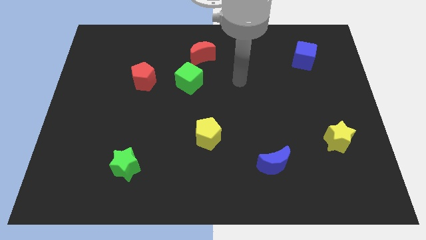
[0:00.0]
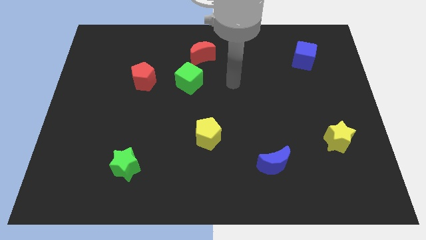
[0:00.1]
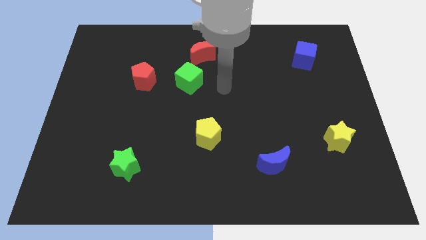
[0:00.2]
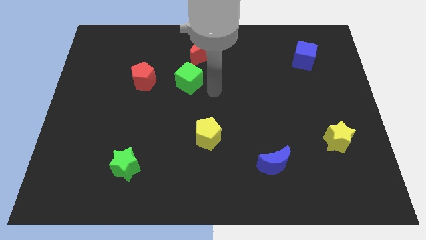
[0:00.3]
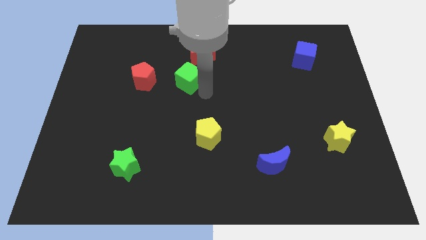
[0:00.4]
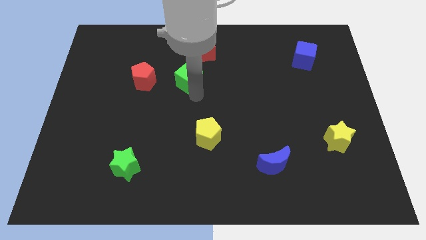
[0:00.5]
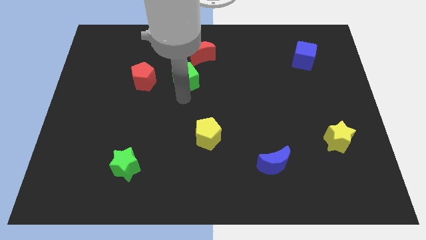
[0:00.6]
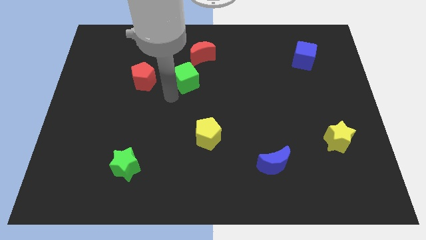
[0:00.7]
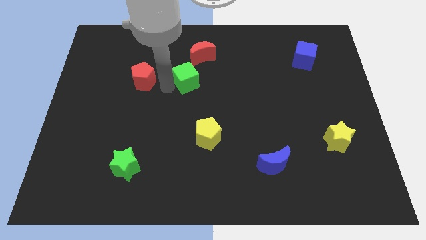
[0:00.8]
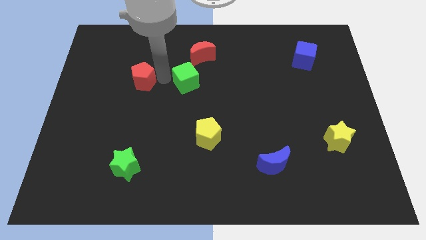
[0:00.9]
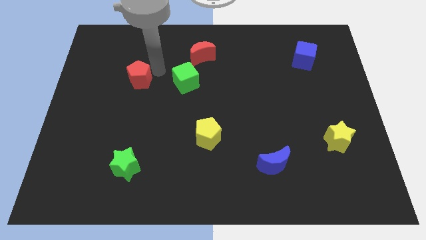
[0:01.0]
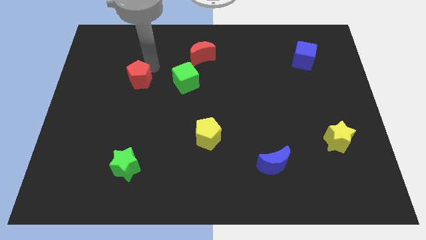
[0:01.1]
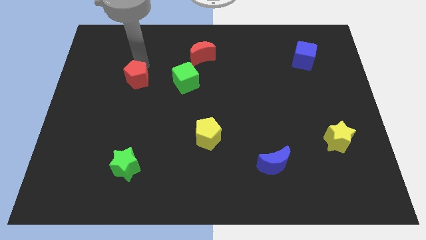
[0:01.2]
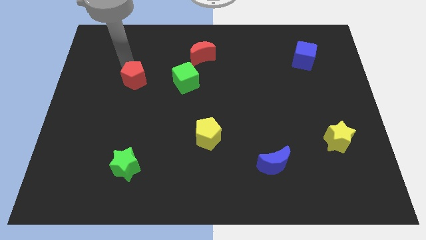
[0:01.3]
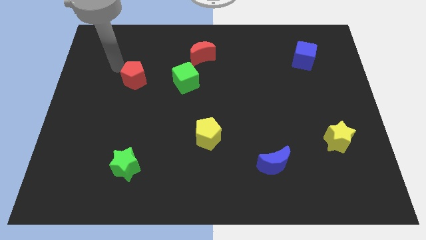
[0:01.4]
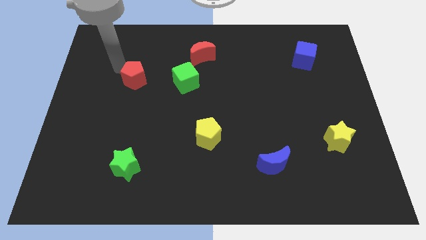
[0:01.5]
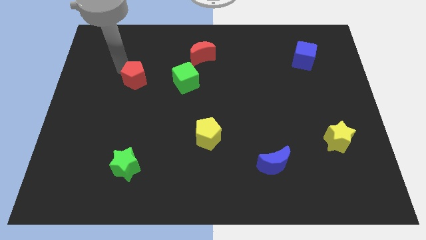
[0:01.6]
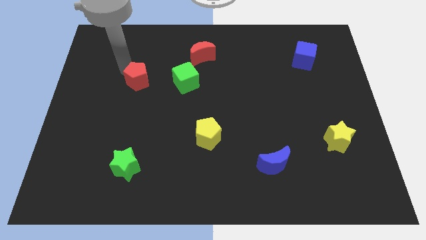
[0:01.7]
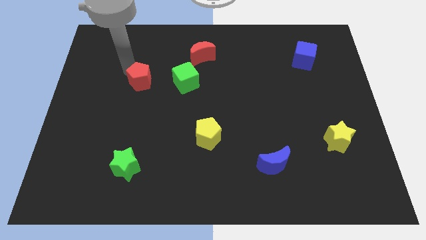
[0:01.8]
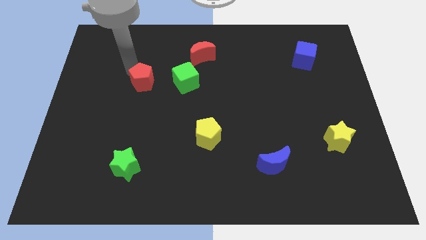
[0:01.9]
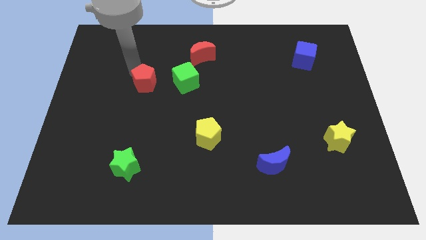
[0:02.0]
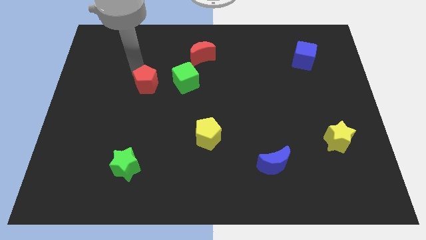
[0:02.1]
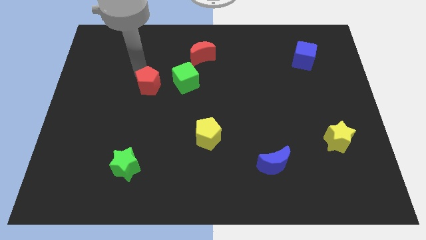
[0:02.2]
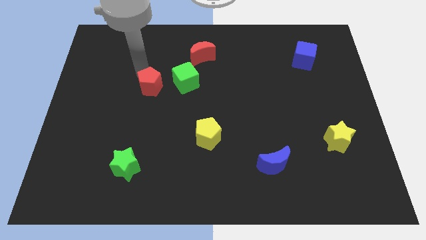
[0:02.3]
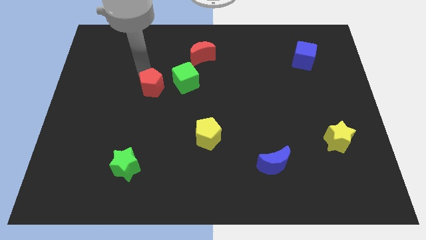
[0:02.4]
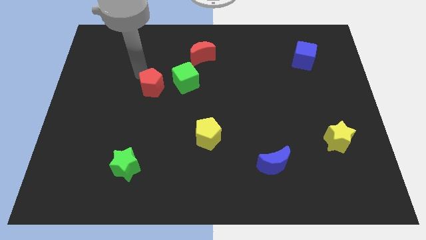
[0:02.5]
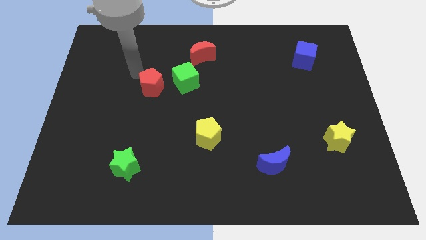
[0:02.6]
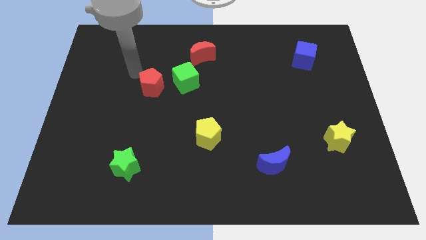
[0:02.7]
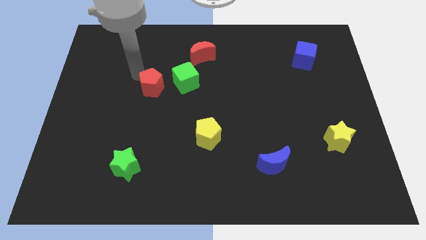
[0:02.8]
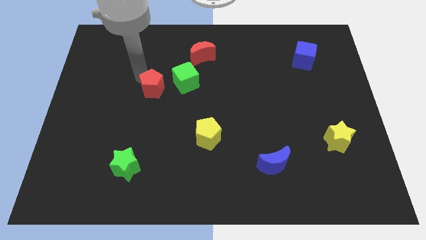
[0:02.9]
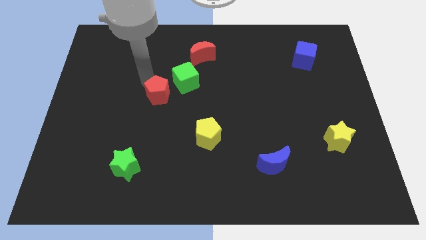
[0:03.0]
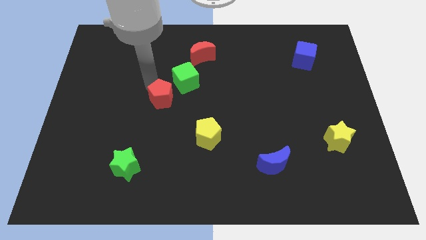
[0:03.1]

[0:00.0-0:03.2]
slightly move the red pentagon down and right

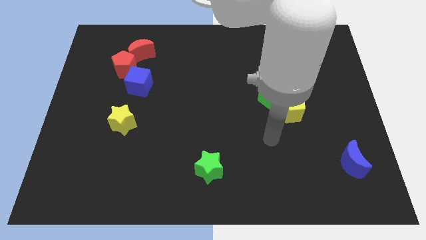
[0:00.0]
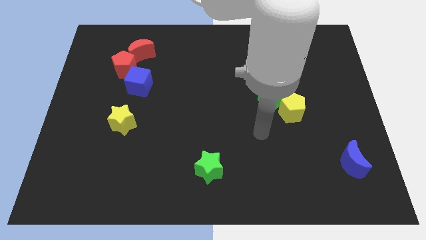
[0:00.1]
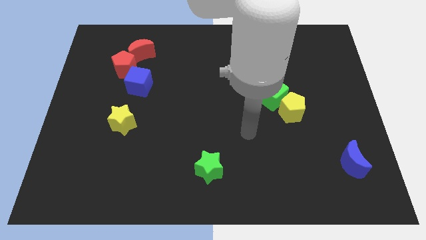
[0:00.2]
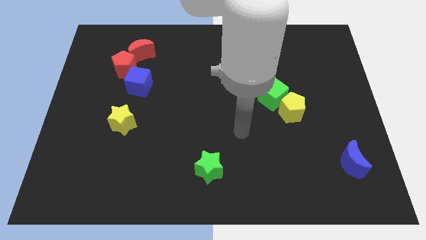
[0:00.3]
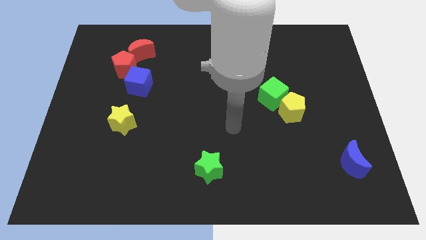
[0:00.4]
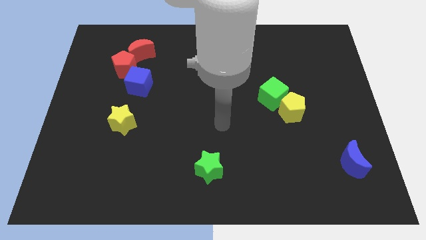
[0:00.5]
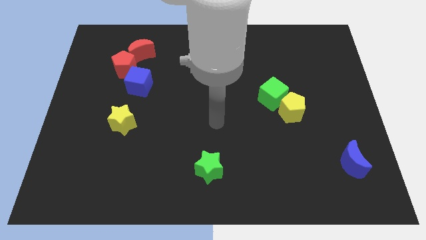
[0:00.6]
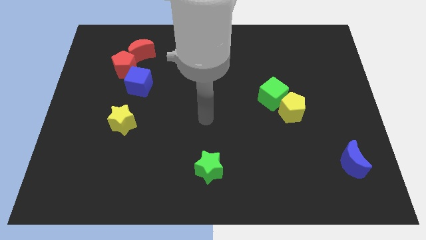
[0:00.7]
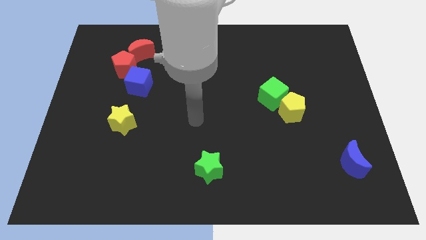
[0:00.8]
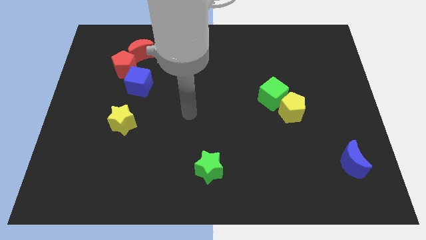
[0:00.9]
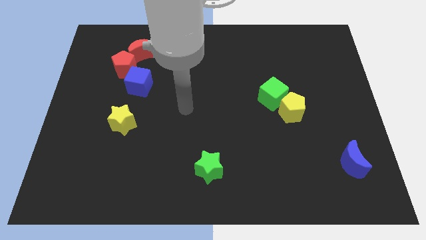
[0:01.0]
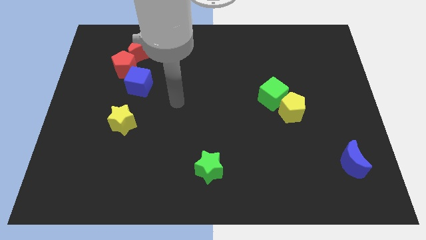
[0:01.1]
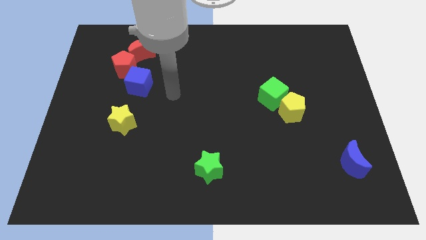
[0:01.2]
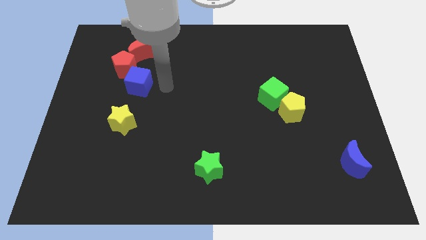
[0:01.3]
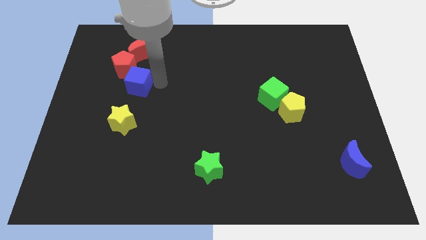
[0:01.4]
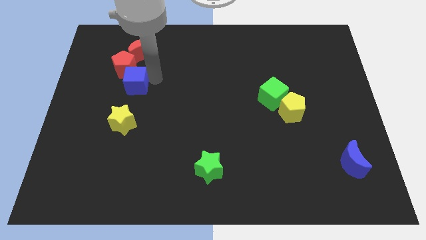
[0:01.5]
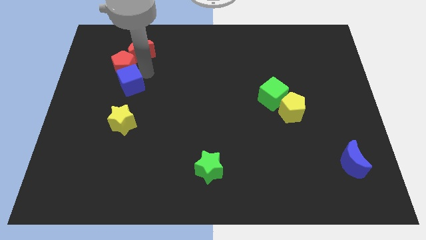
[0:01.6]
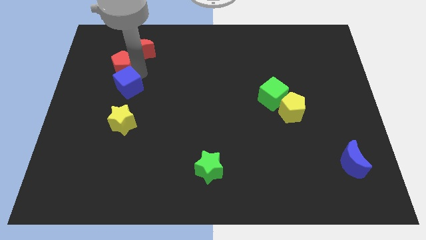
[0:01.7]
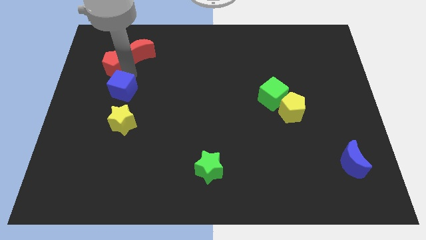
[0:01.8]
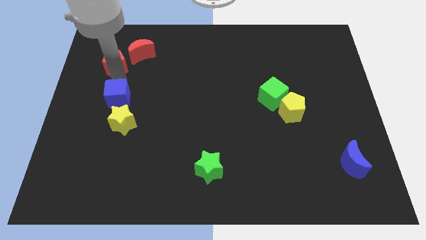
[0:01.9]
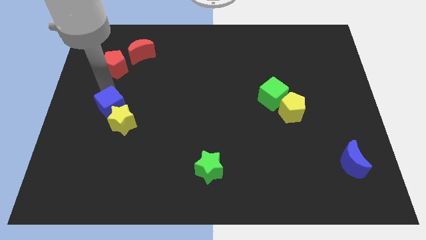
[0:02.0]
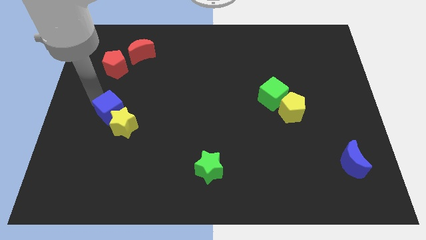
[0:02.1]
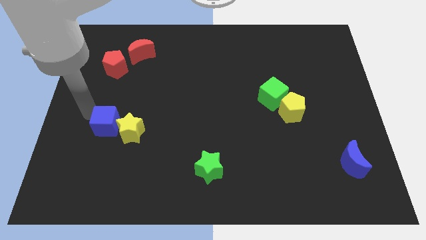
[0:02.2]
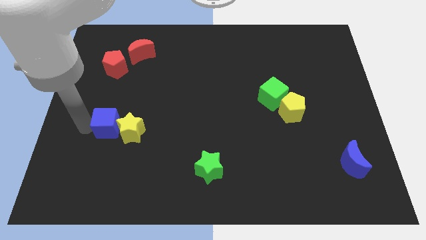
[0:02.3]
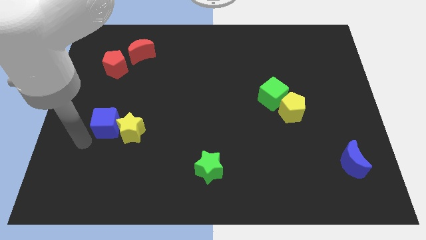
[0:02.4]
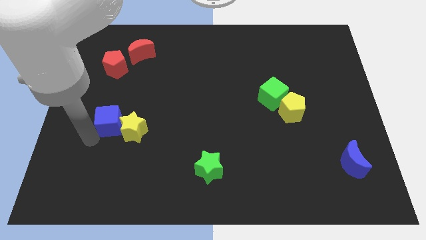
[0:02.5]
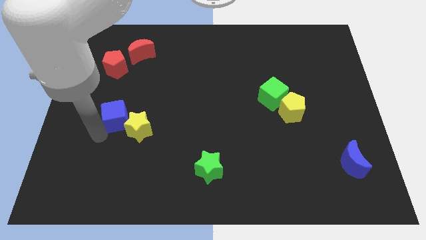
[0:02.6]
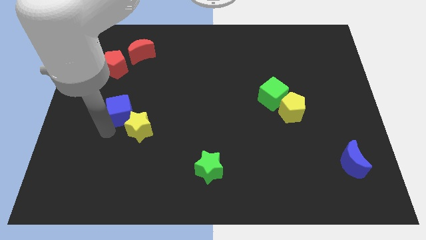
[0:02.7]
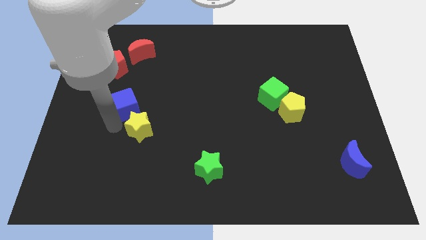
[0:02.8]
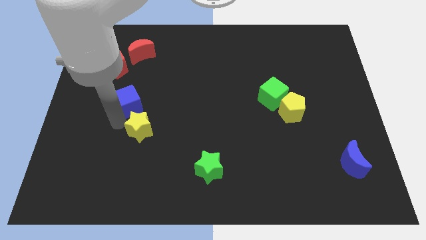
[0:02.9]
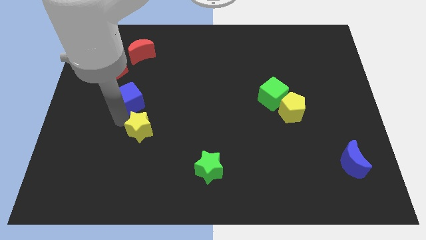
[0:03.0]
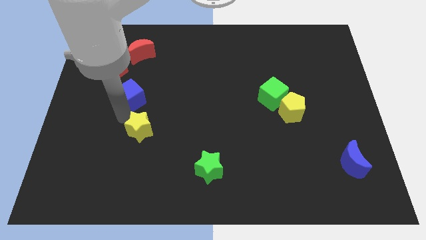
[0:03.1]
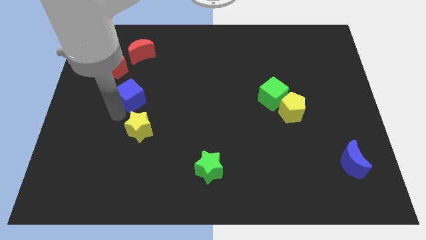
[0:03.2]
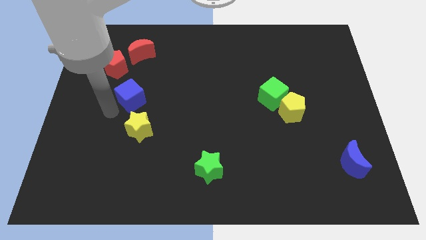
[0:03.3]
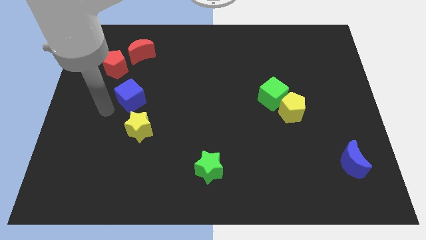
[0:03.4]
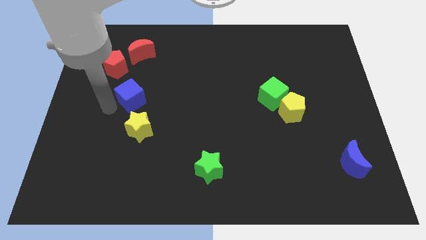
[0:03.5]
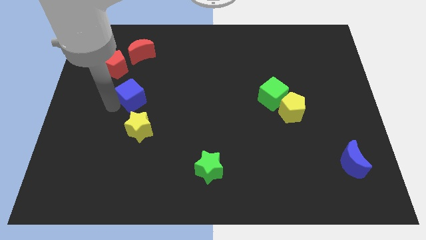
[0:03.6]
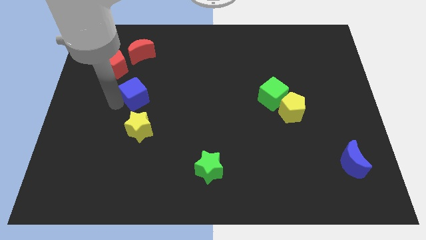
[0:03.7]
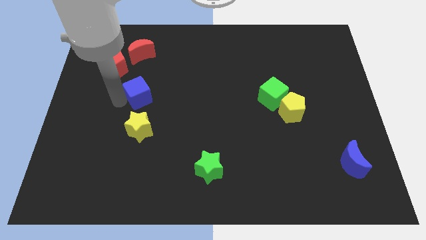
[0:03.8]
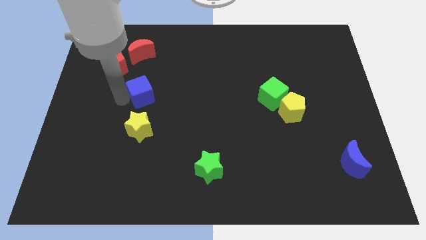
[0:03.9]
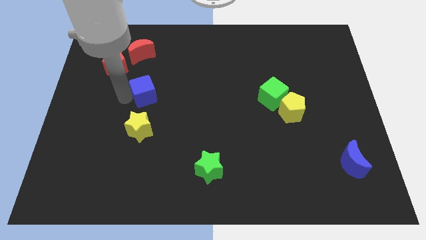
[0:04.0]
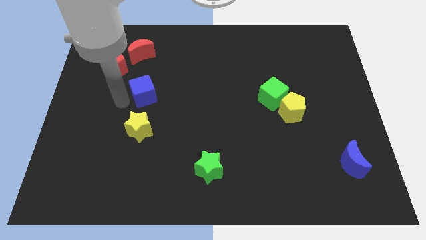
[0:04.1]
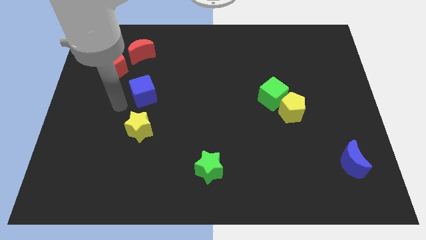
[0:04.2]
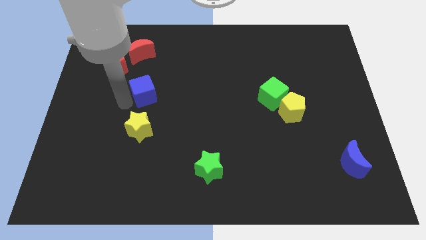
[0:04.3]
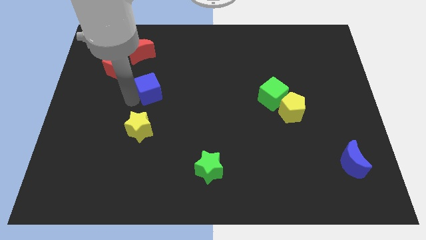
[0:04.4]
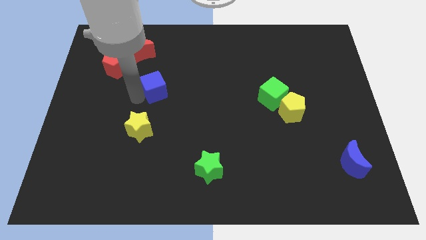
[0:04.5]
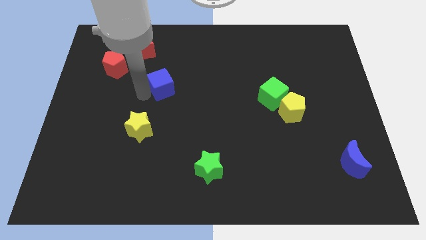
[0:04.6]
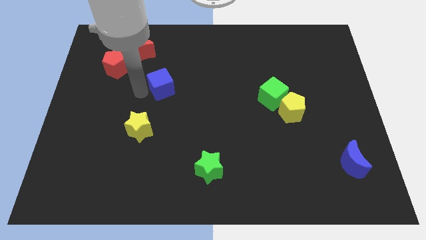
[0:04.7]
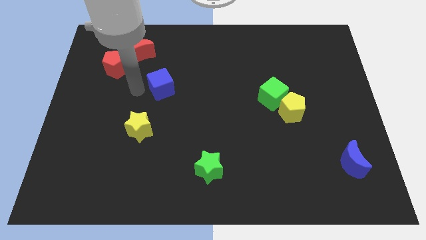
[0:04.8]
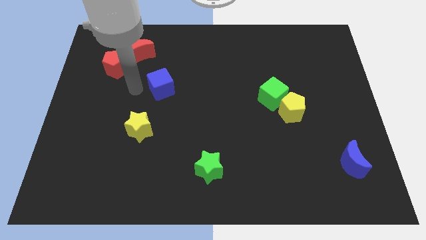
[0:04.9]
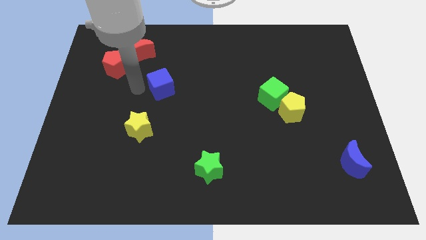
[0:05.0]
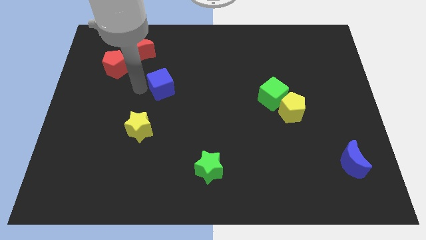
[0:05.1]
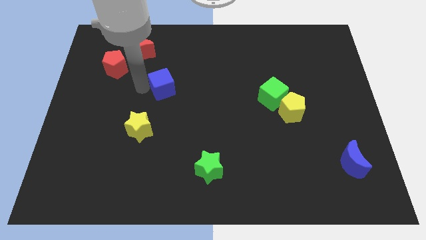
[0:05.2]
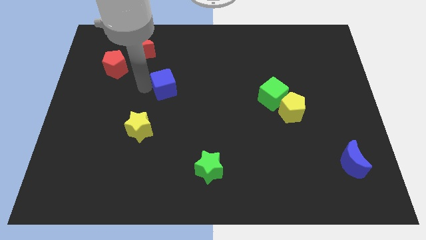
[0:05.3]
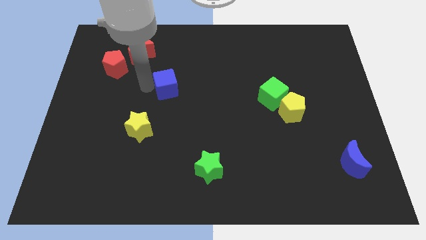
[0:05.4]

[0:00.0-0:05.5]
slightly slide the blue cube right
